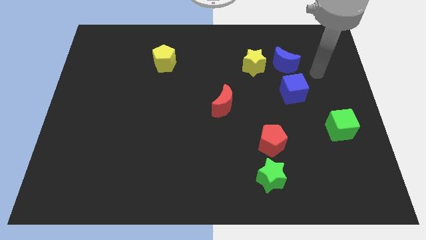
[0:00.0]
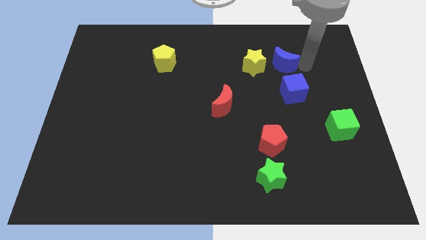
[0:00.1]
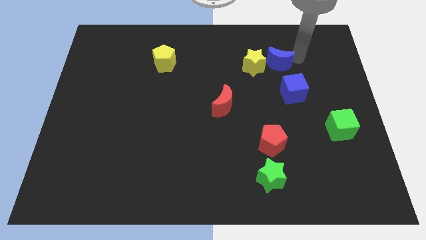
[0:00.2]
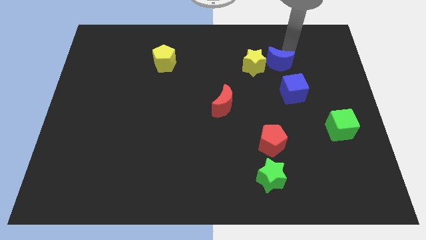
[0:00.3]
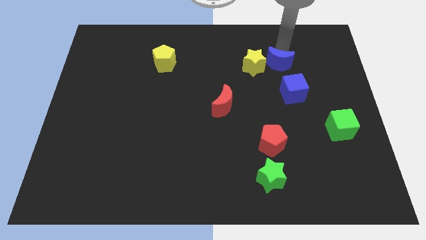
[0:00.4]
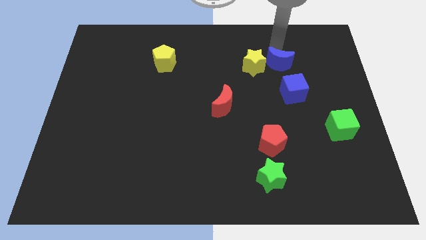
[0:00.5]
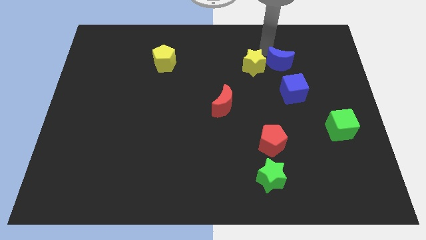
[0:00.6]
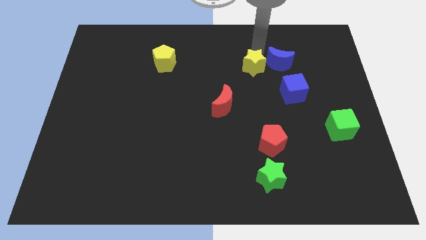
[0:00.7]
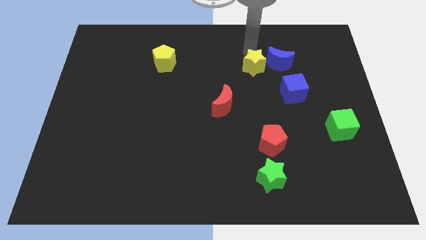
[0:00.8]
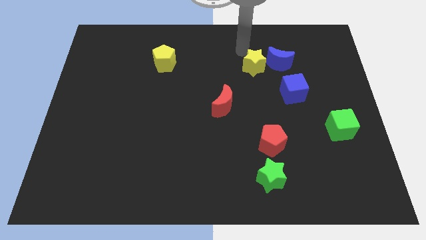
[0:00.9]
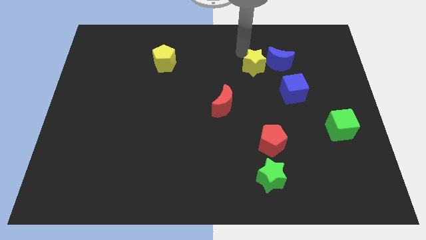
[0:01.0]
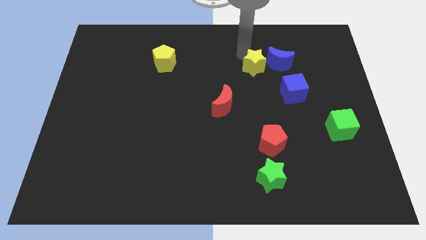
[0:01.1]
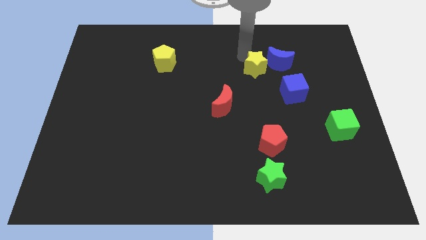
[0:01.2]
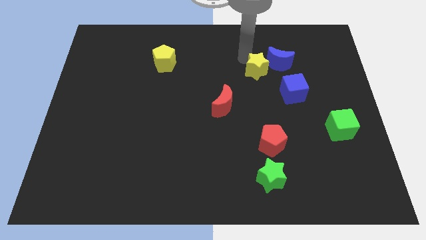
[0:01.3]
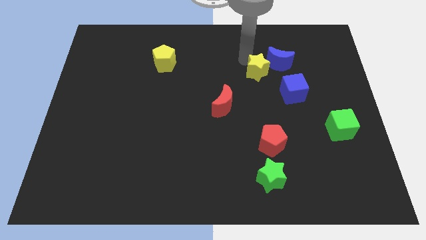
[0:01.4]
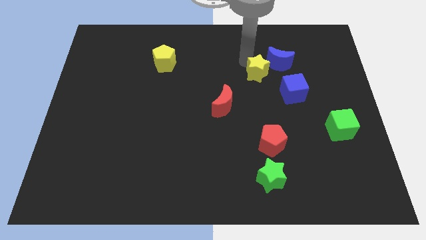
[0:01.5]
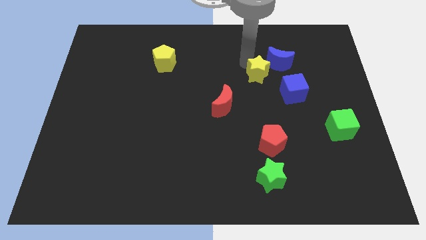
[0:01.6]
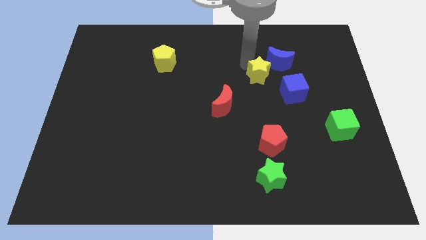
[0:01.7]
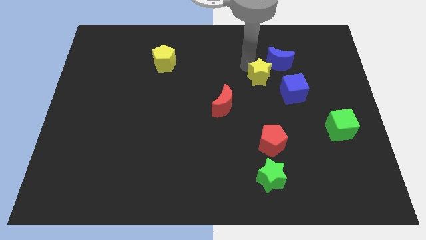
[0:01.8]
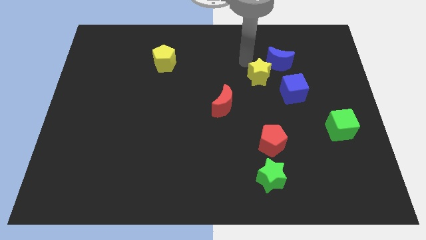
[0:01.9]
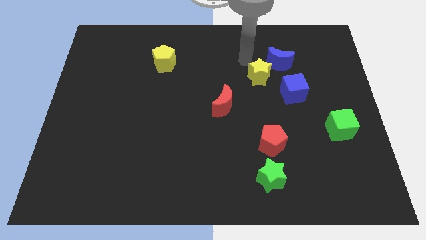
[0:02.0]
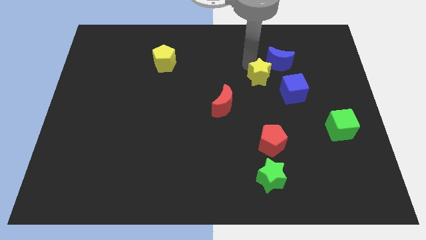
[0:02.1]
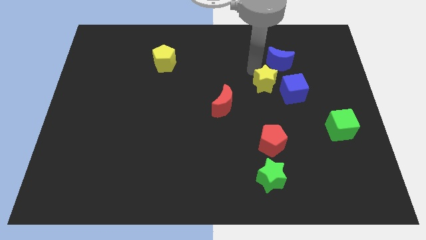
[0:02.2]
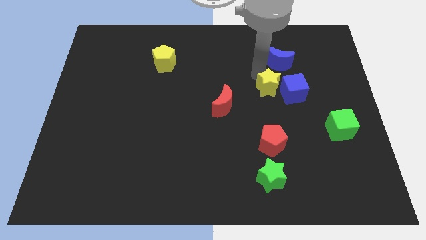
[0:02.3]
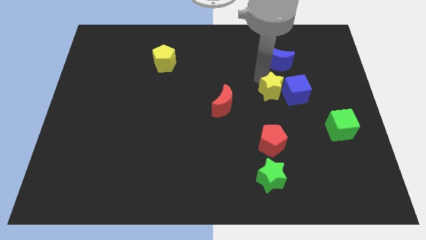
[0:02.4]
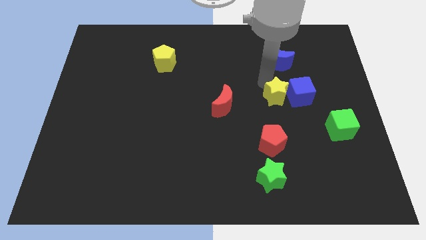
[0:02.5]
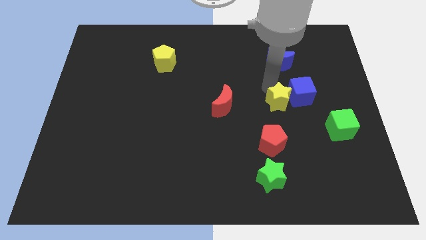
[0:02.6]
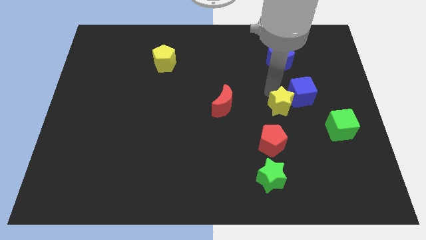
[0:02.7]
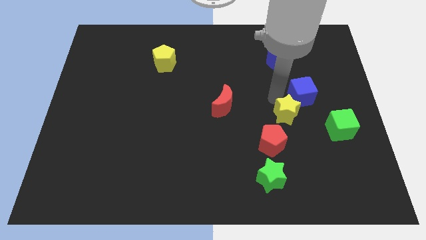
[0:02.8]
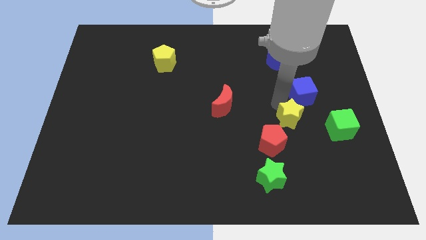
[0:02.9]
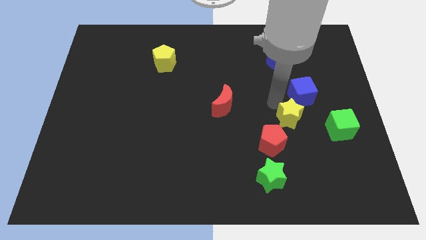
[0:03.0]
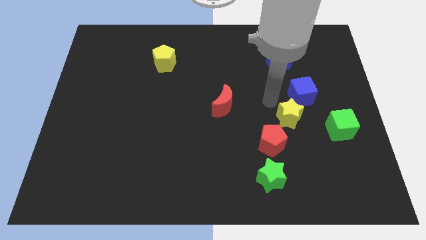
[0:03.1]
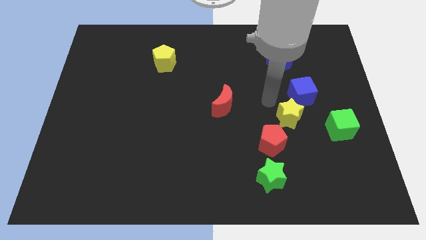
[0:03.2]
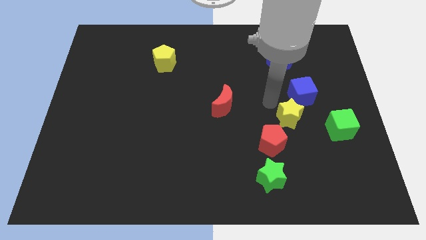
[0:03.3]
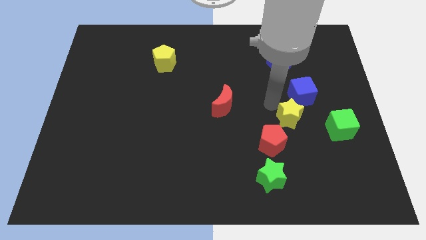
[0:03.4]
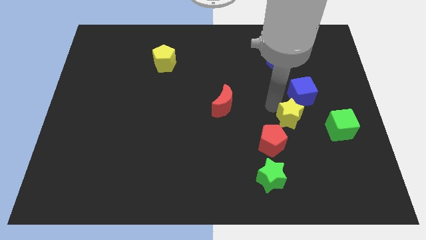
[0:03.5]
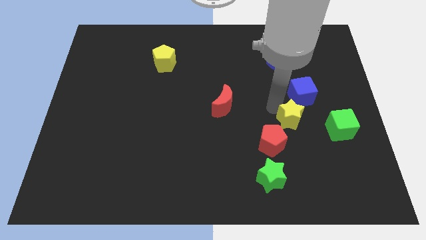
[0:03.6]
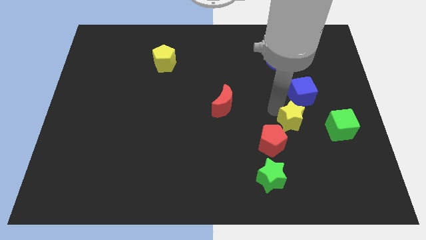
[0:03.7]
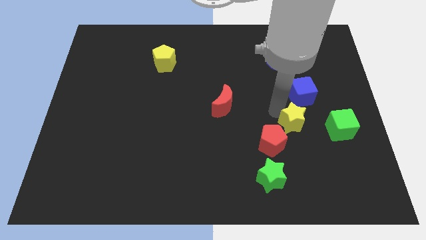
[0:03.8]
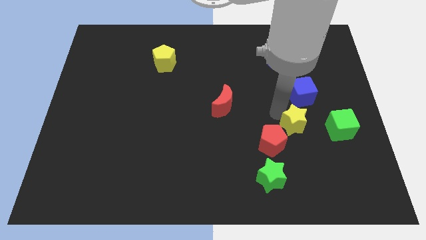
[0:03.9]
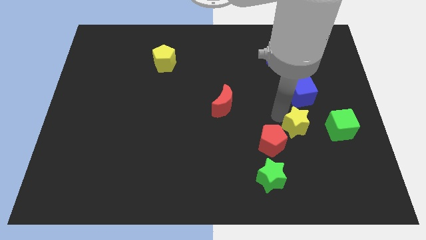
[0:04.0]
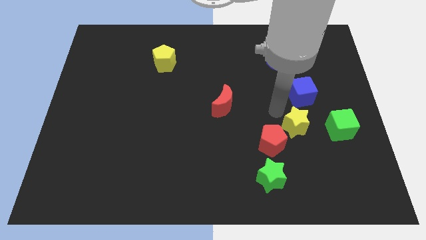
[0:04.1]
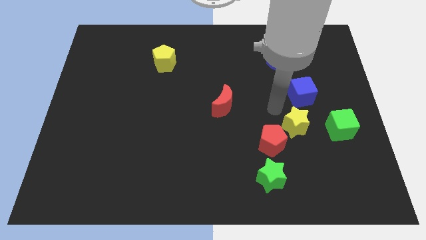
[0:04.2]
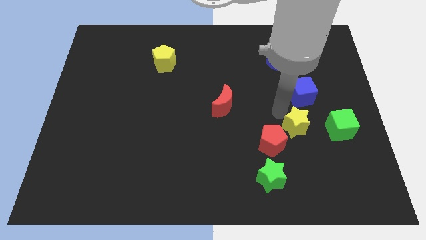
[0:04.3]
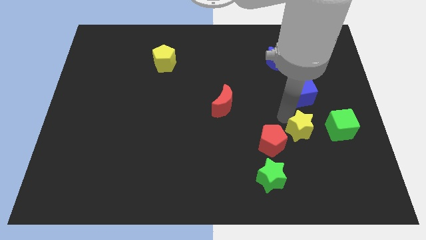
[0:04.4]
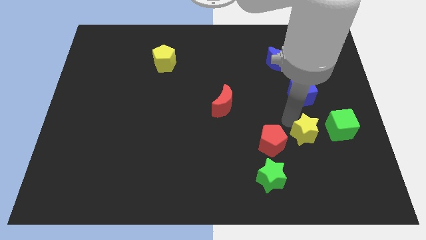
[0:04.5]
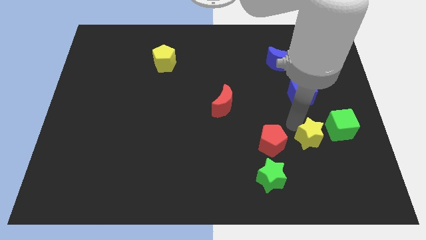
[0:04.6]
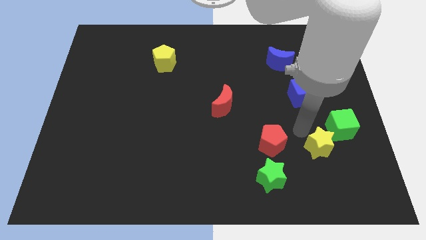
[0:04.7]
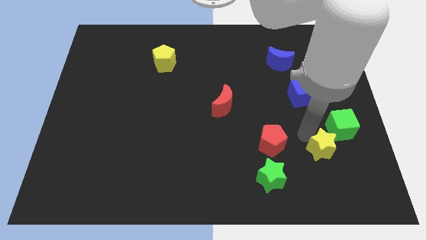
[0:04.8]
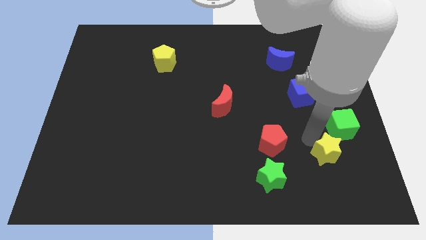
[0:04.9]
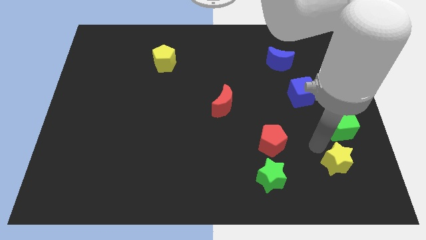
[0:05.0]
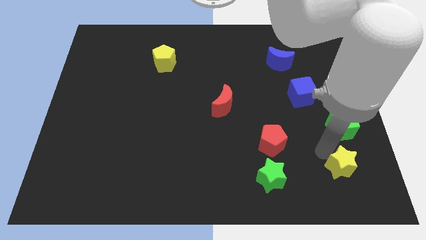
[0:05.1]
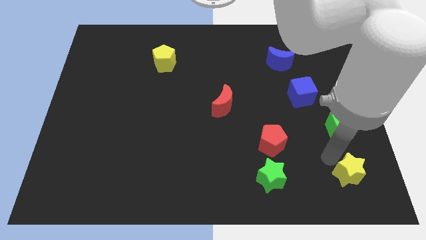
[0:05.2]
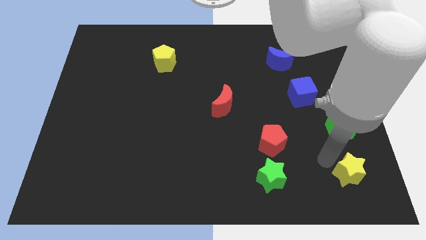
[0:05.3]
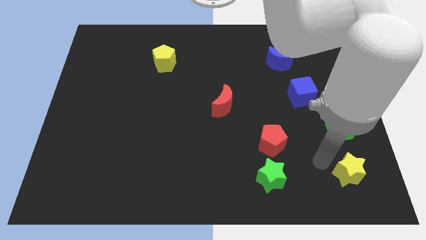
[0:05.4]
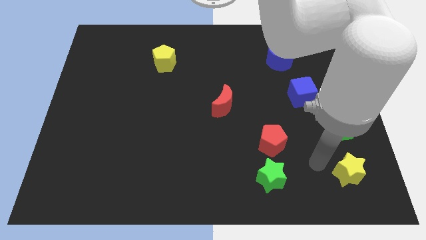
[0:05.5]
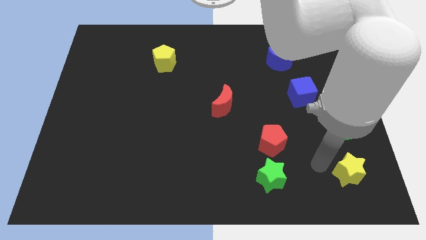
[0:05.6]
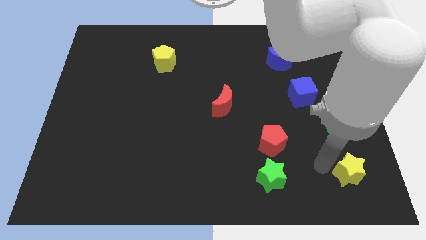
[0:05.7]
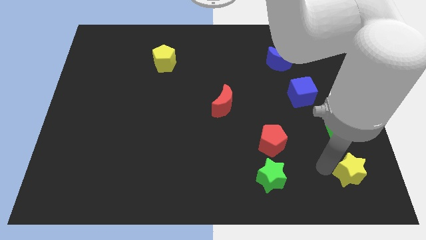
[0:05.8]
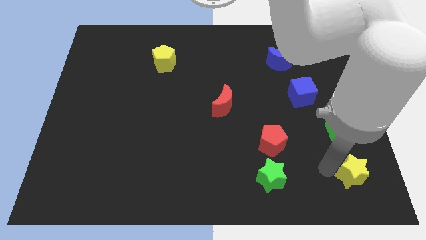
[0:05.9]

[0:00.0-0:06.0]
put the yellow star to the bottom right corner
